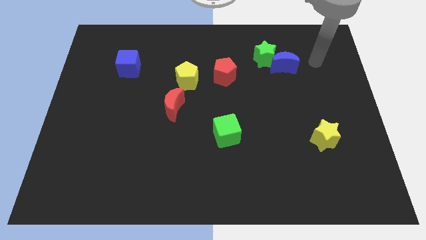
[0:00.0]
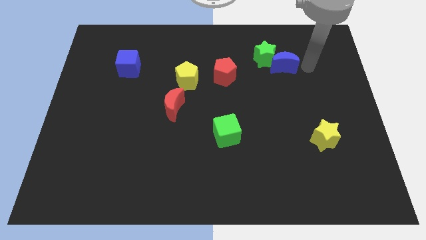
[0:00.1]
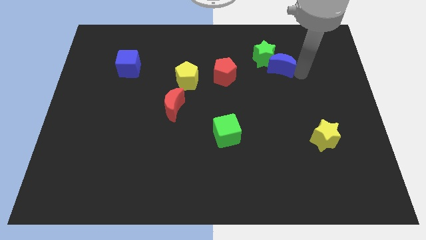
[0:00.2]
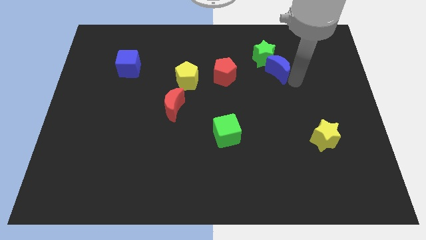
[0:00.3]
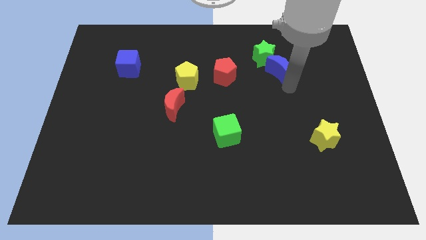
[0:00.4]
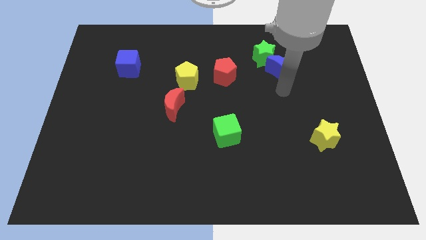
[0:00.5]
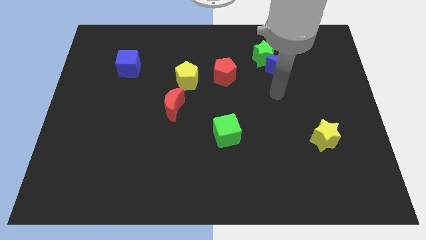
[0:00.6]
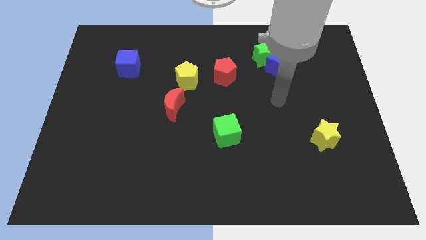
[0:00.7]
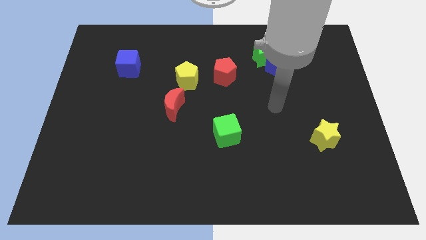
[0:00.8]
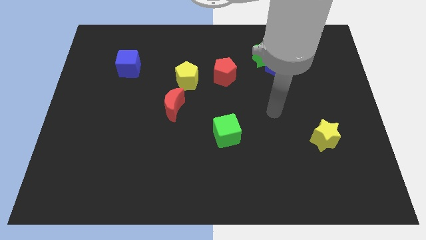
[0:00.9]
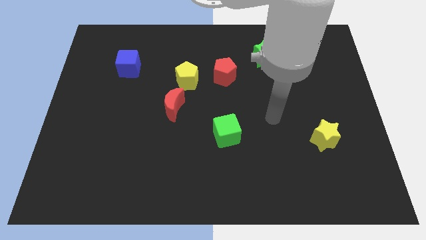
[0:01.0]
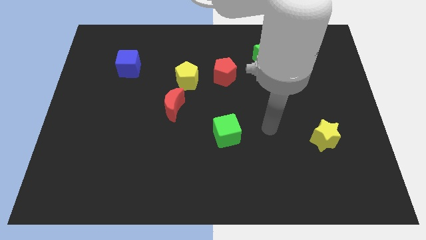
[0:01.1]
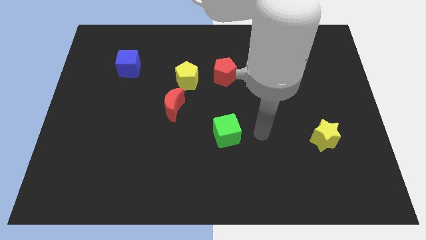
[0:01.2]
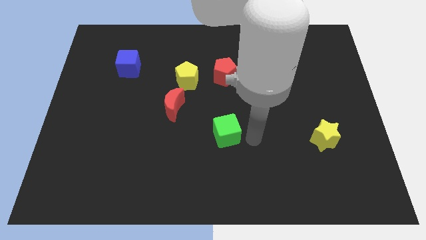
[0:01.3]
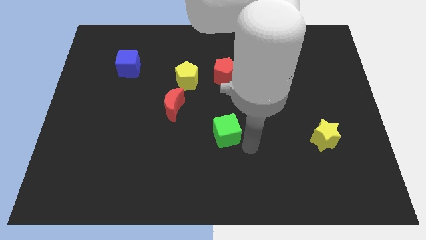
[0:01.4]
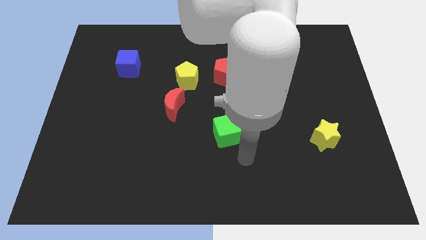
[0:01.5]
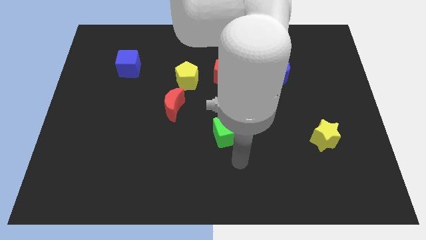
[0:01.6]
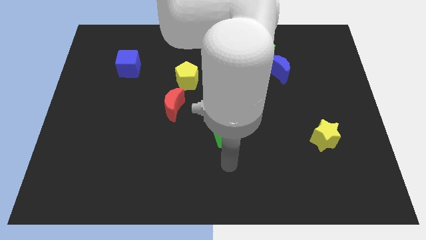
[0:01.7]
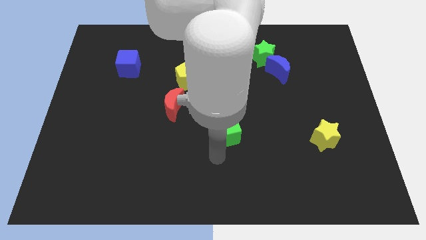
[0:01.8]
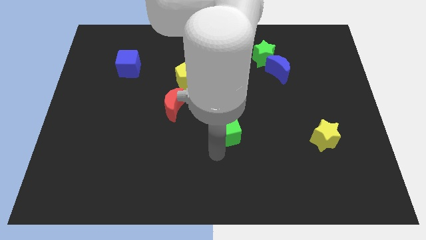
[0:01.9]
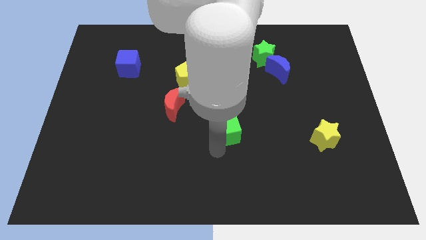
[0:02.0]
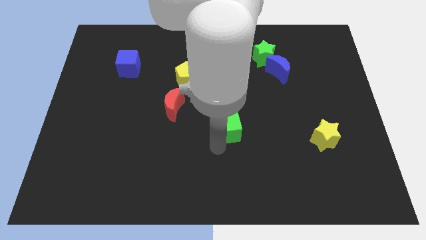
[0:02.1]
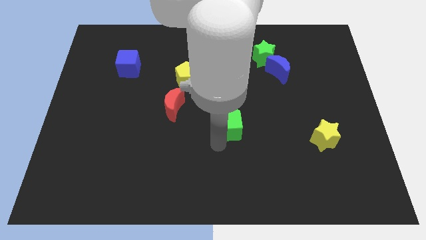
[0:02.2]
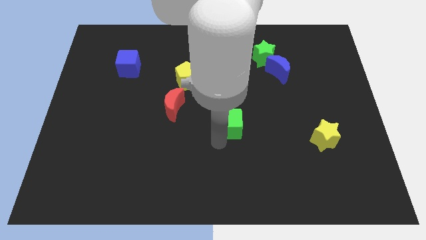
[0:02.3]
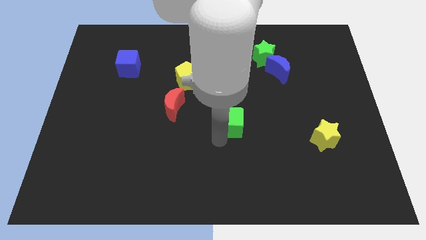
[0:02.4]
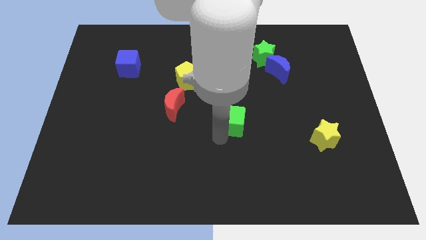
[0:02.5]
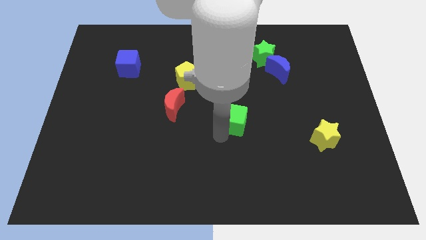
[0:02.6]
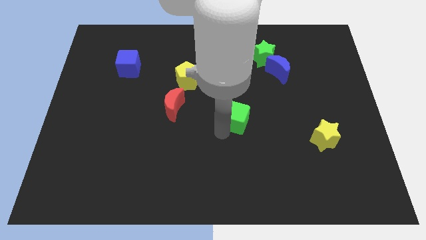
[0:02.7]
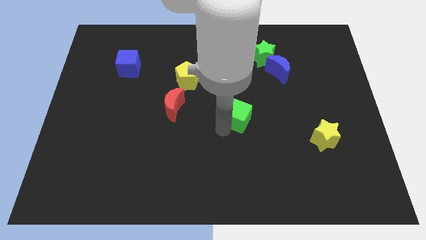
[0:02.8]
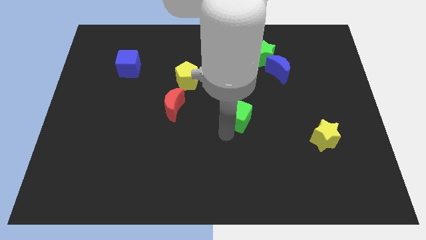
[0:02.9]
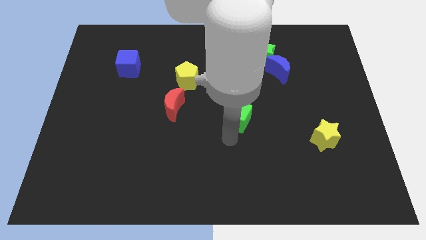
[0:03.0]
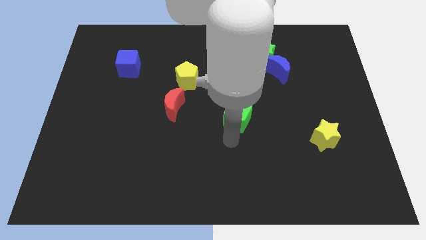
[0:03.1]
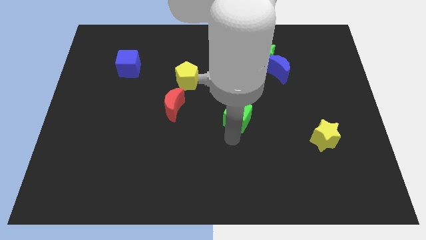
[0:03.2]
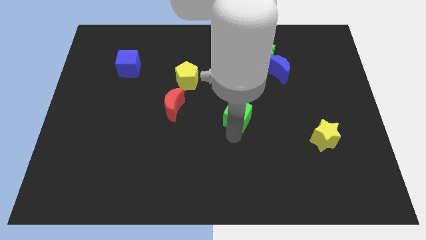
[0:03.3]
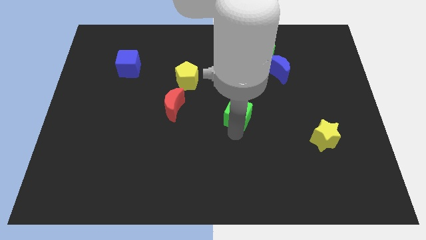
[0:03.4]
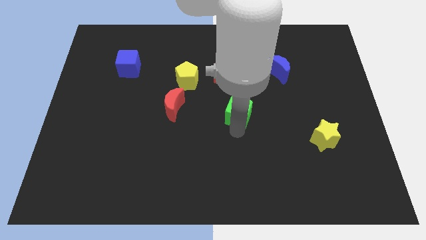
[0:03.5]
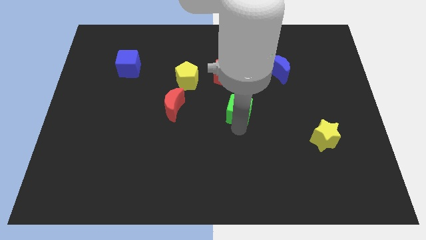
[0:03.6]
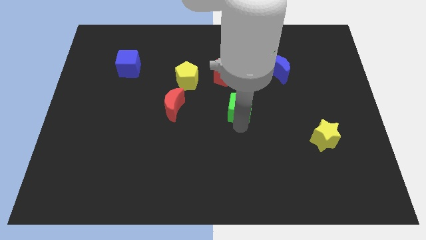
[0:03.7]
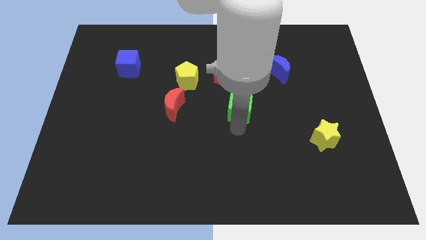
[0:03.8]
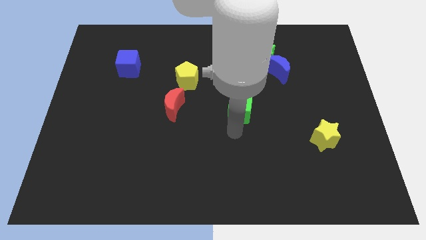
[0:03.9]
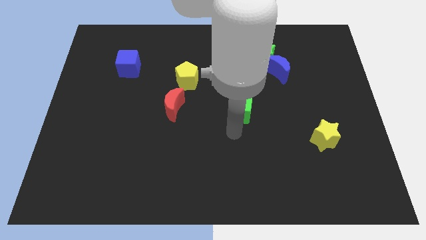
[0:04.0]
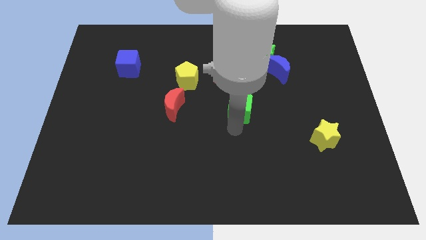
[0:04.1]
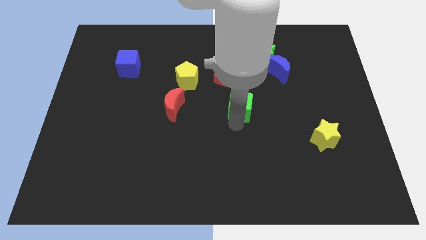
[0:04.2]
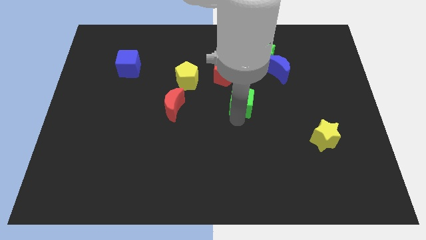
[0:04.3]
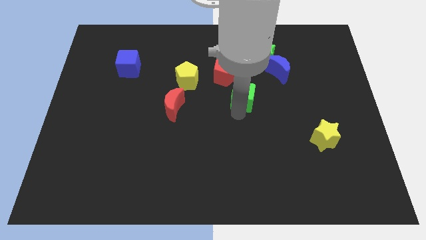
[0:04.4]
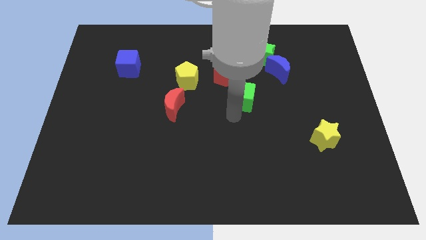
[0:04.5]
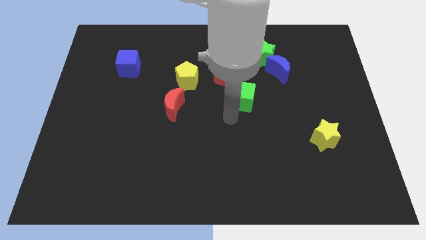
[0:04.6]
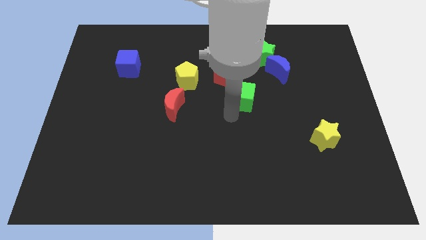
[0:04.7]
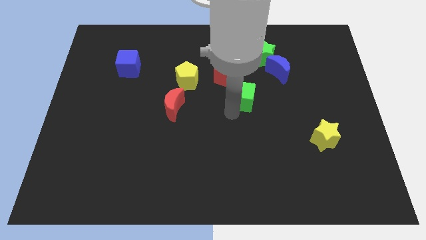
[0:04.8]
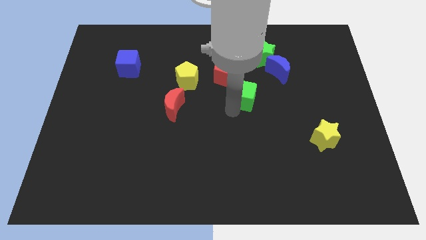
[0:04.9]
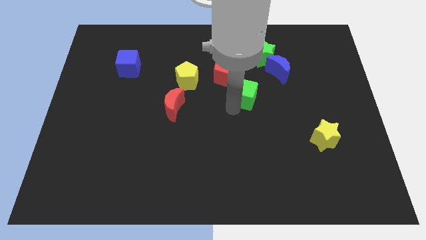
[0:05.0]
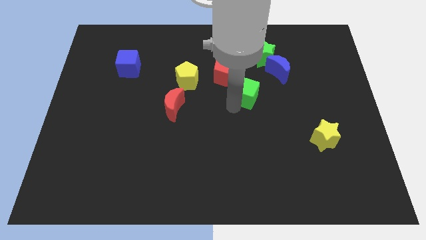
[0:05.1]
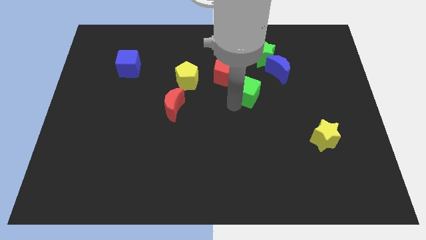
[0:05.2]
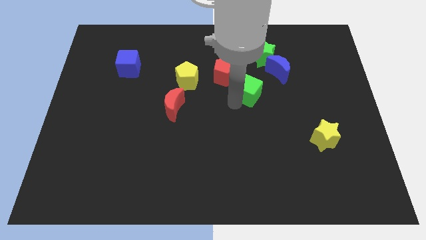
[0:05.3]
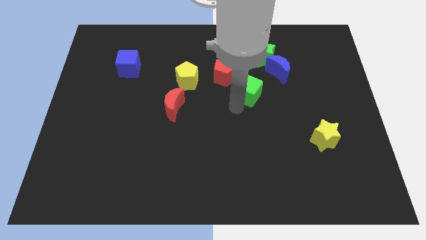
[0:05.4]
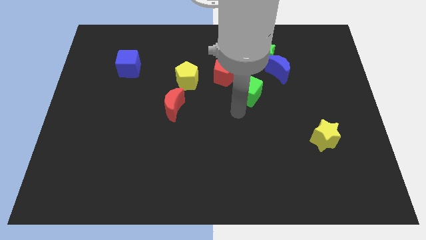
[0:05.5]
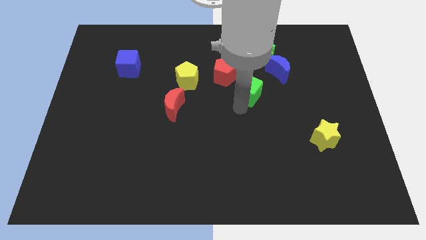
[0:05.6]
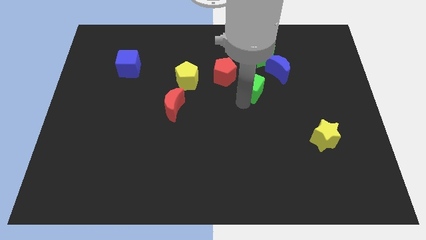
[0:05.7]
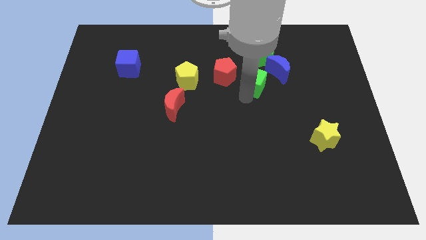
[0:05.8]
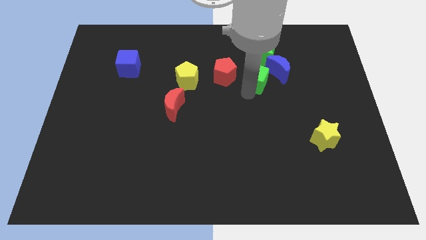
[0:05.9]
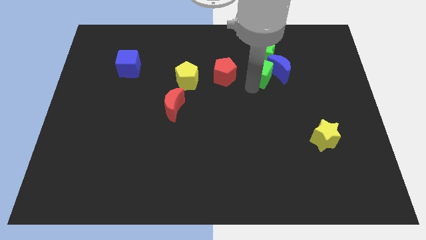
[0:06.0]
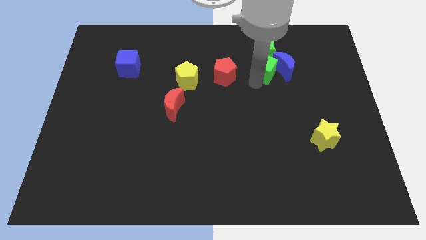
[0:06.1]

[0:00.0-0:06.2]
push the green cube next to the green star

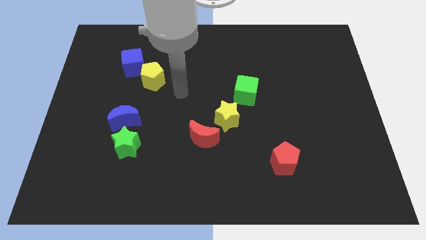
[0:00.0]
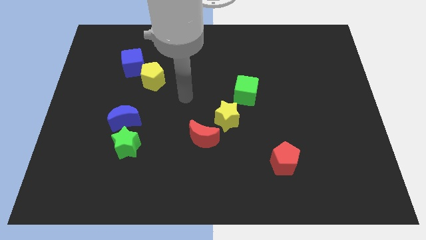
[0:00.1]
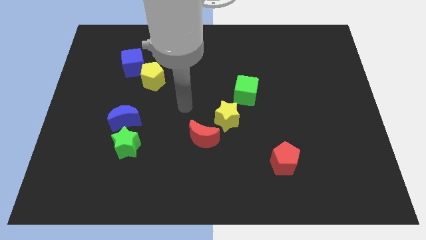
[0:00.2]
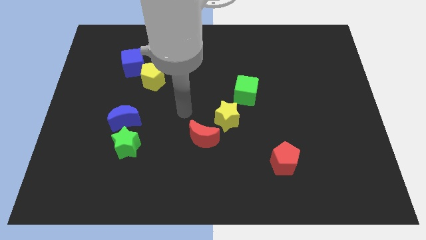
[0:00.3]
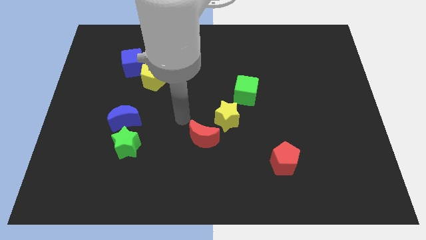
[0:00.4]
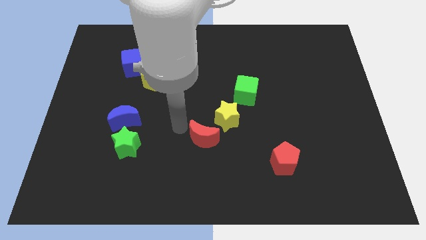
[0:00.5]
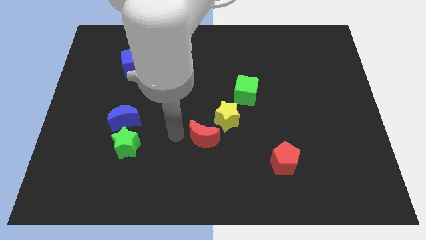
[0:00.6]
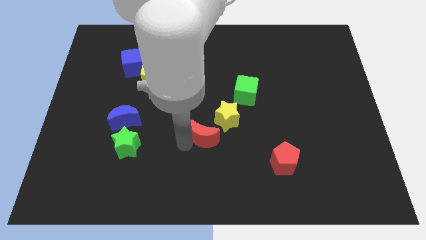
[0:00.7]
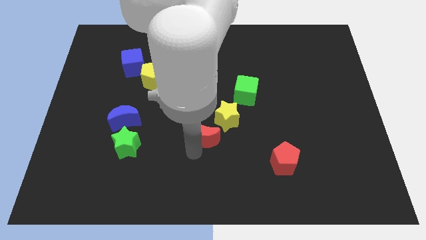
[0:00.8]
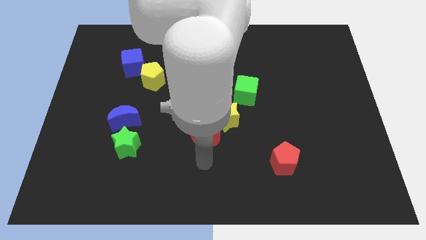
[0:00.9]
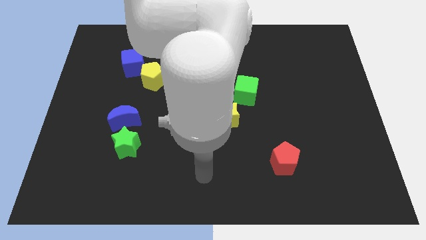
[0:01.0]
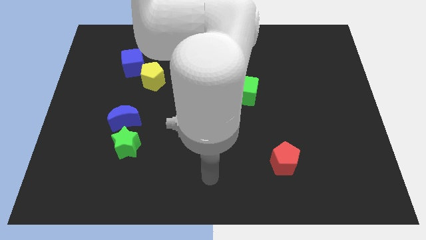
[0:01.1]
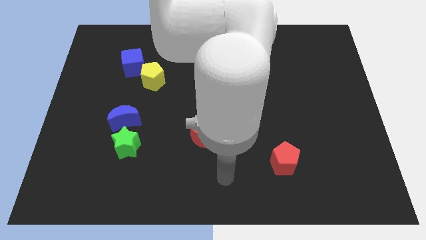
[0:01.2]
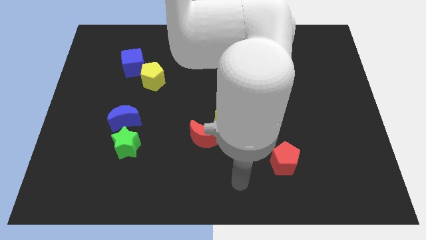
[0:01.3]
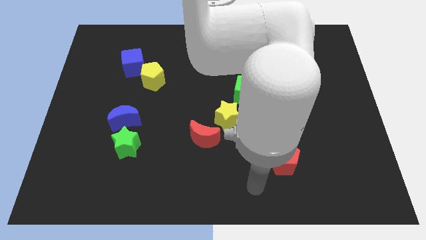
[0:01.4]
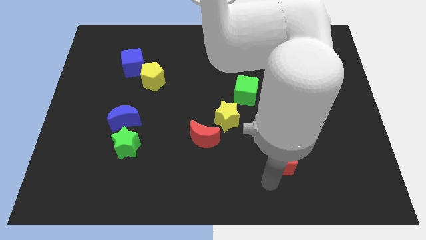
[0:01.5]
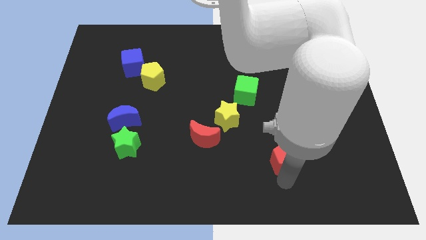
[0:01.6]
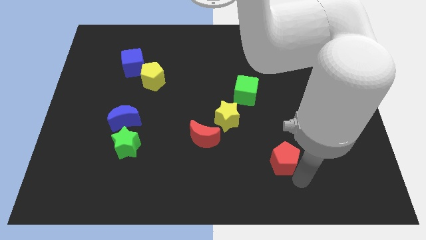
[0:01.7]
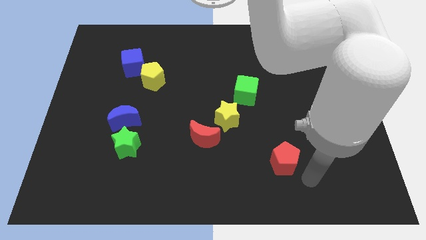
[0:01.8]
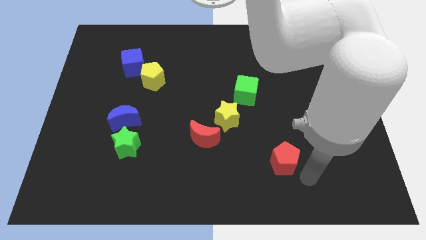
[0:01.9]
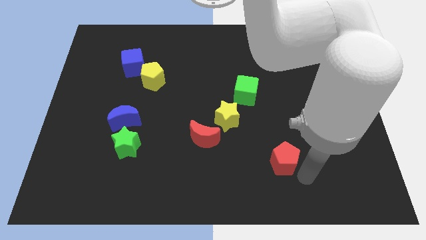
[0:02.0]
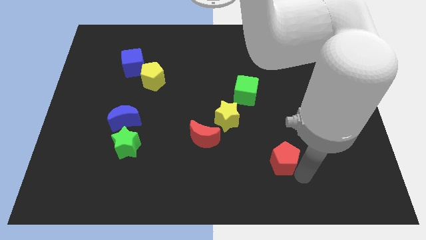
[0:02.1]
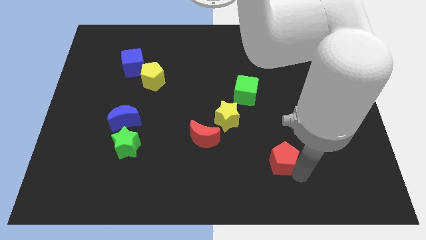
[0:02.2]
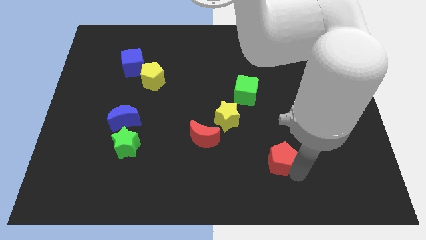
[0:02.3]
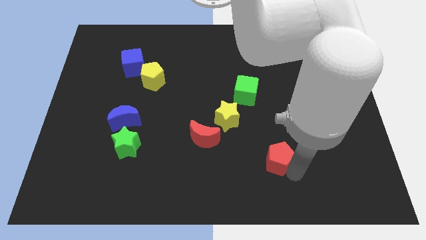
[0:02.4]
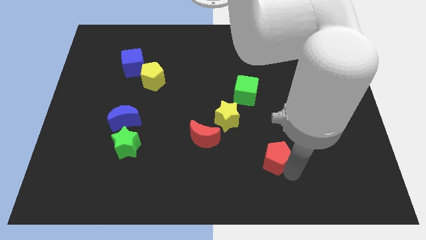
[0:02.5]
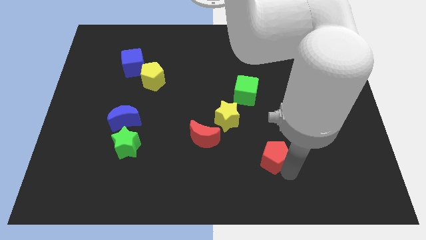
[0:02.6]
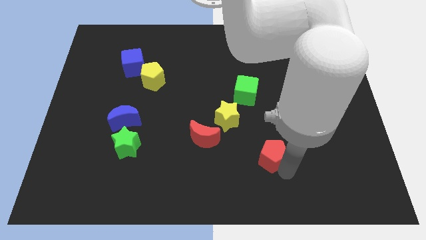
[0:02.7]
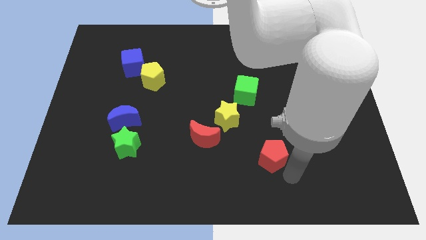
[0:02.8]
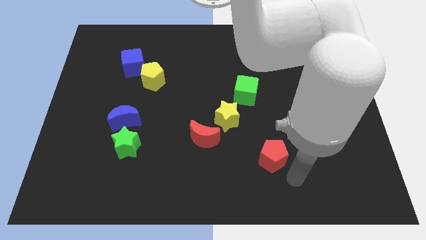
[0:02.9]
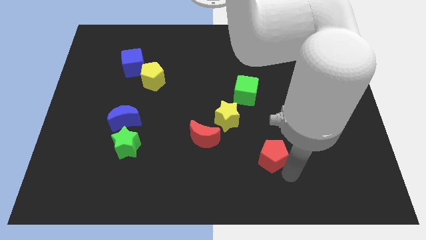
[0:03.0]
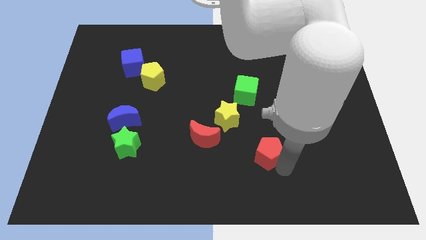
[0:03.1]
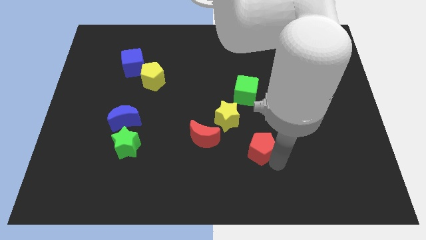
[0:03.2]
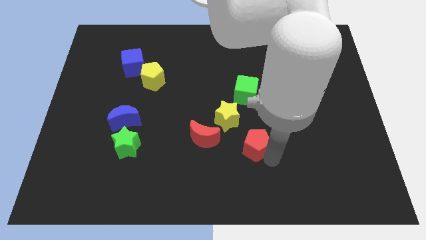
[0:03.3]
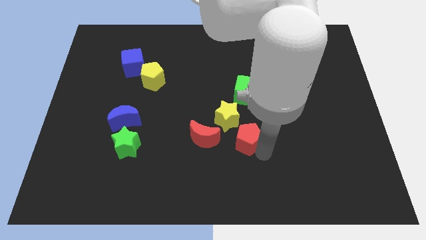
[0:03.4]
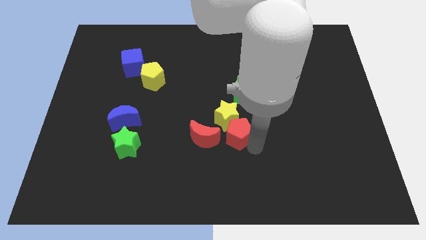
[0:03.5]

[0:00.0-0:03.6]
push the red pentagon to the yellow star
